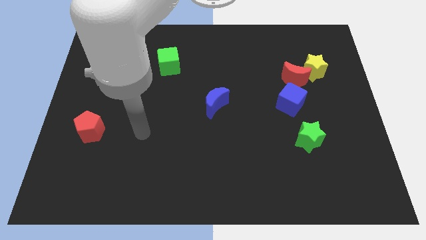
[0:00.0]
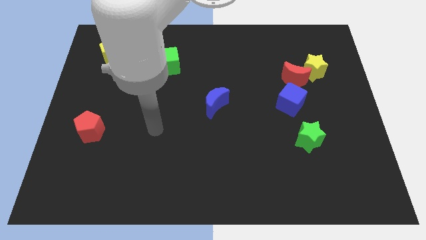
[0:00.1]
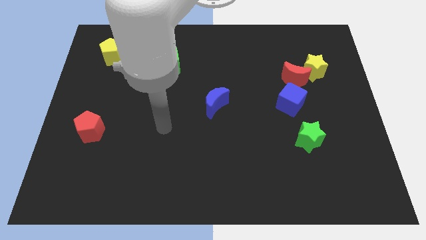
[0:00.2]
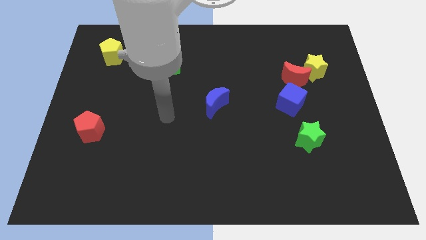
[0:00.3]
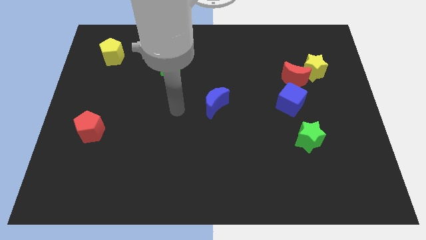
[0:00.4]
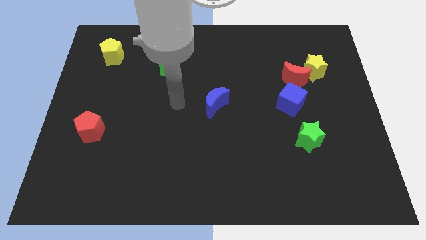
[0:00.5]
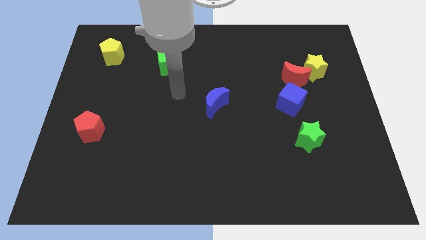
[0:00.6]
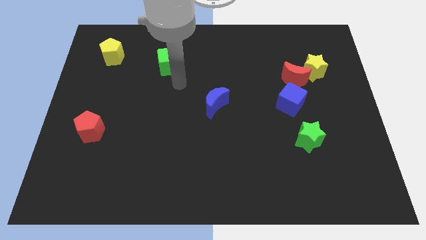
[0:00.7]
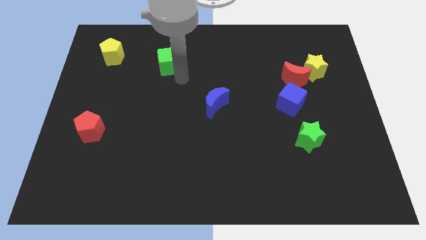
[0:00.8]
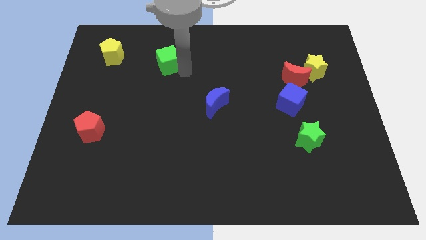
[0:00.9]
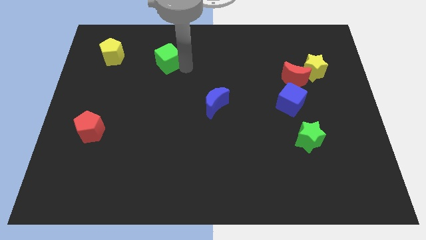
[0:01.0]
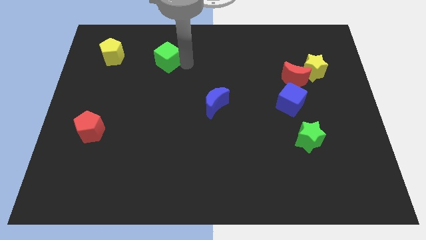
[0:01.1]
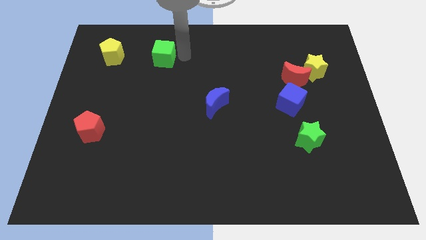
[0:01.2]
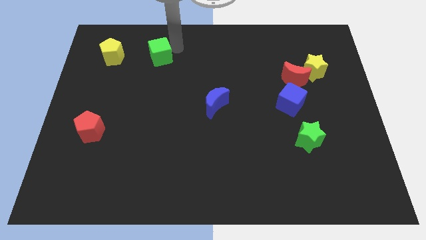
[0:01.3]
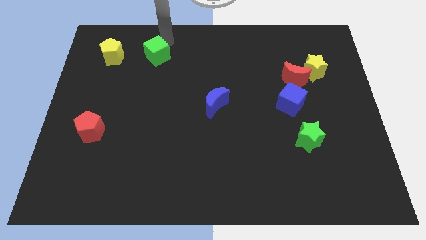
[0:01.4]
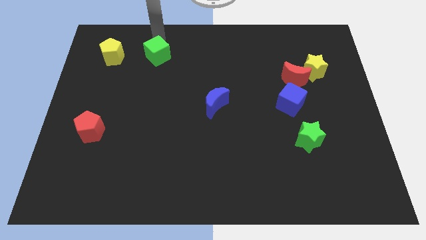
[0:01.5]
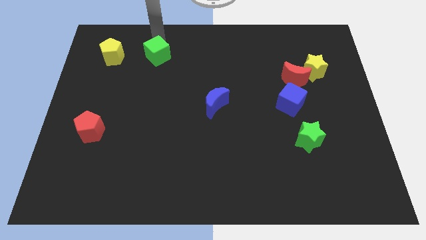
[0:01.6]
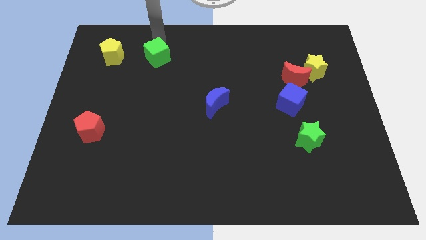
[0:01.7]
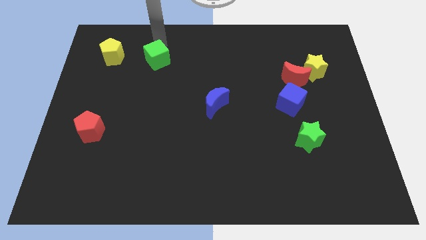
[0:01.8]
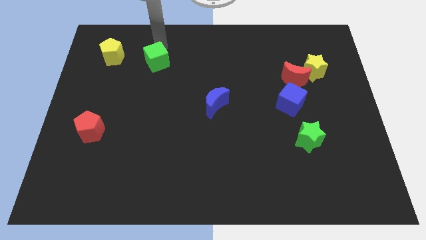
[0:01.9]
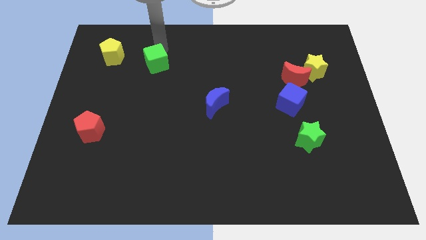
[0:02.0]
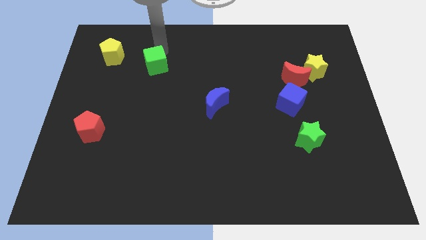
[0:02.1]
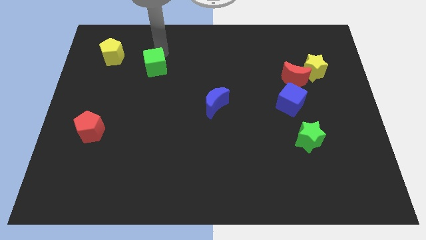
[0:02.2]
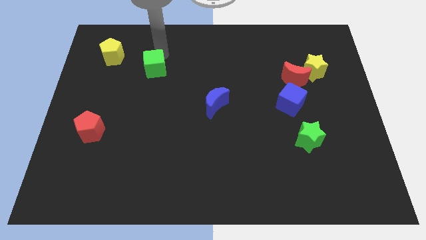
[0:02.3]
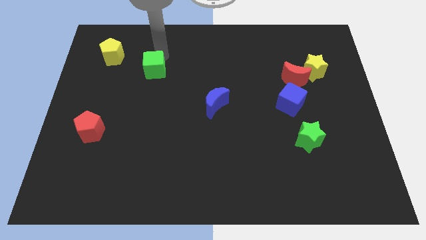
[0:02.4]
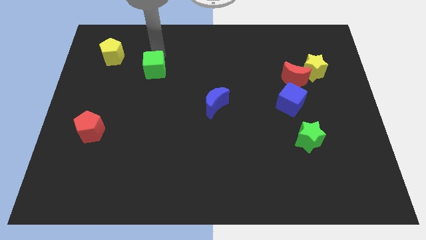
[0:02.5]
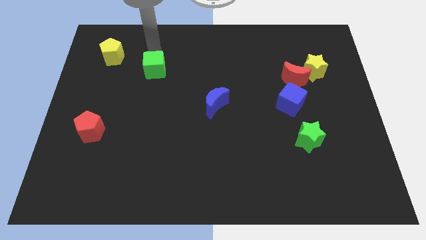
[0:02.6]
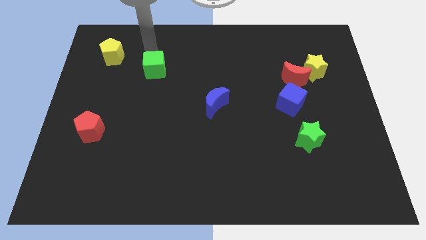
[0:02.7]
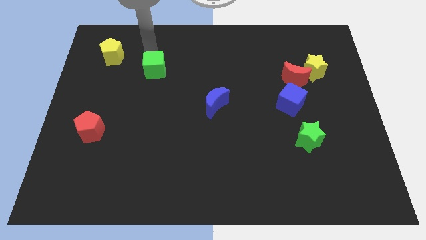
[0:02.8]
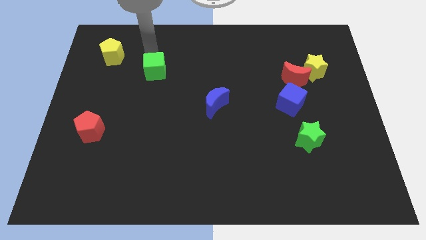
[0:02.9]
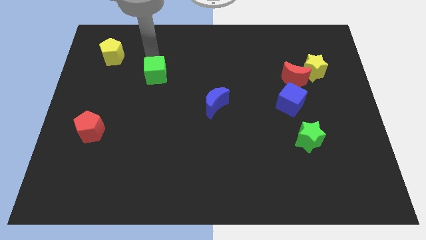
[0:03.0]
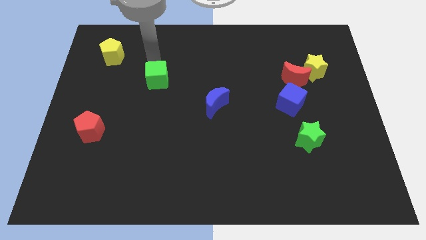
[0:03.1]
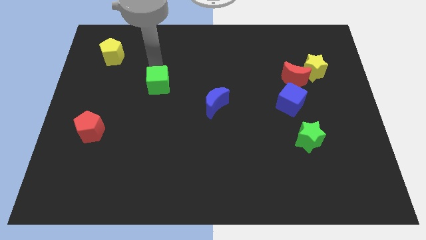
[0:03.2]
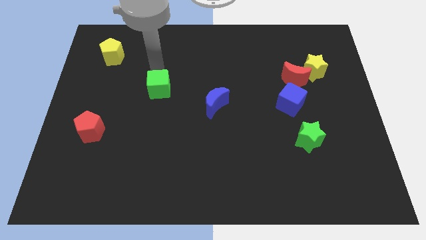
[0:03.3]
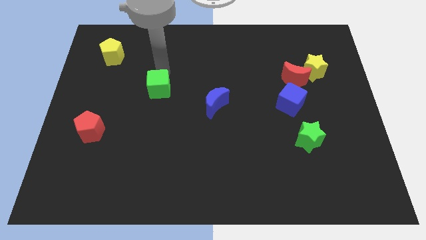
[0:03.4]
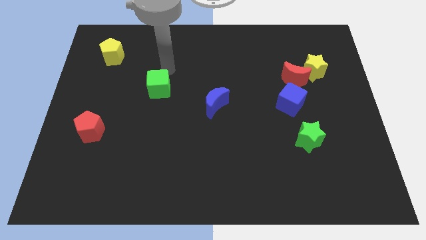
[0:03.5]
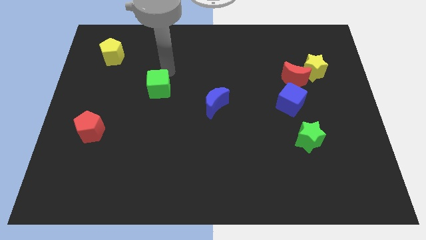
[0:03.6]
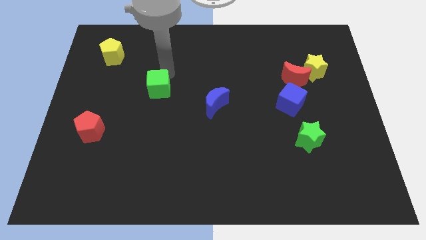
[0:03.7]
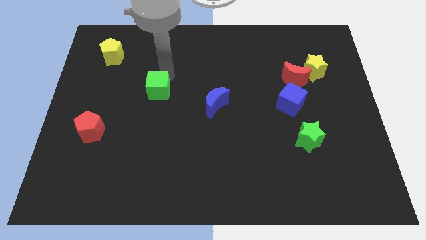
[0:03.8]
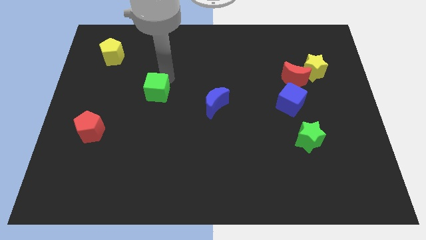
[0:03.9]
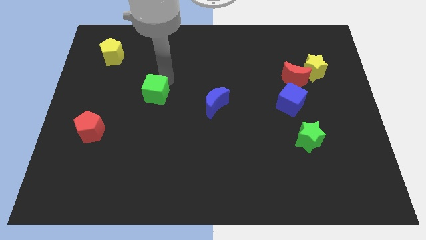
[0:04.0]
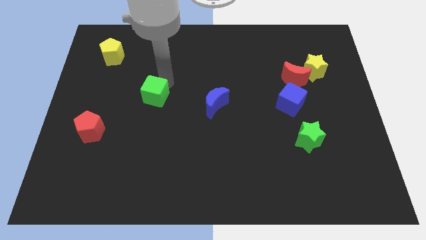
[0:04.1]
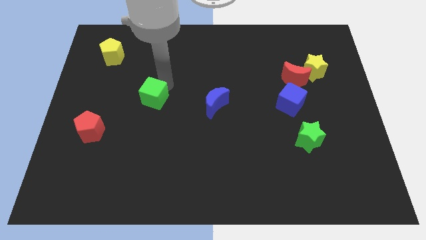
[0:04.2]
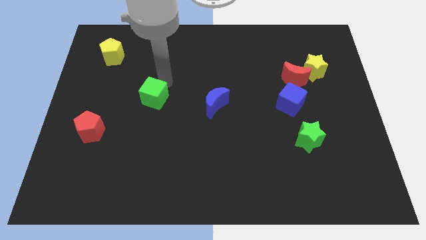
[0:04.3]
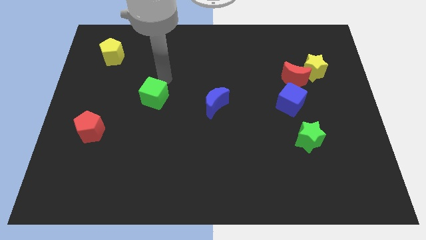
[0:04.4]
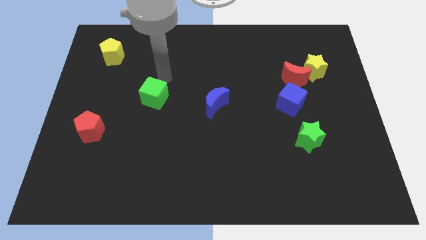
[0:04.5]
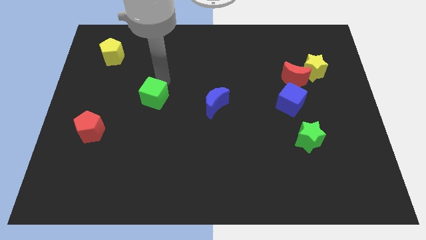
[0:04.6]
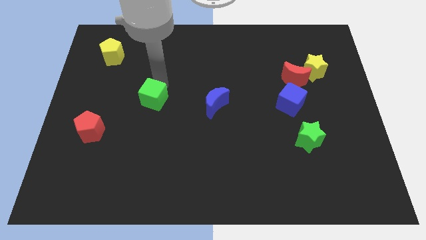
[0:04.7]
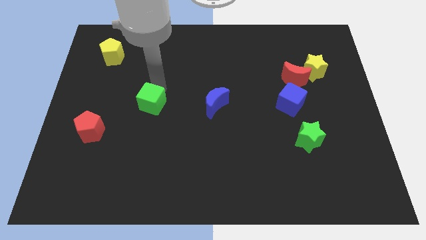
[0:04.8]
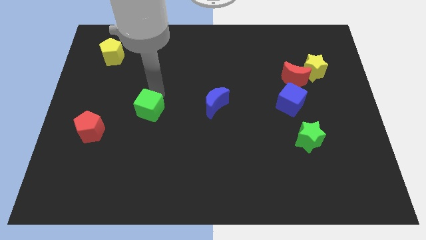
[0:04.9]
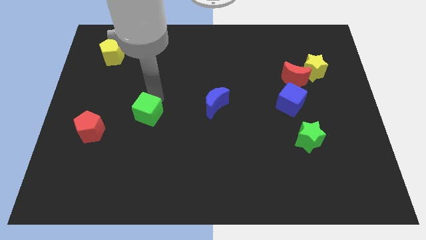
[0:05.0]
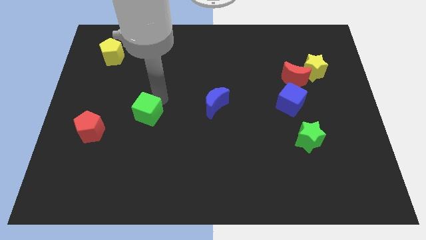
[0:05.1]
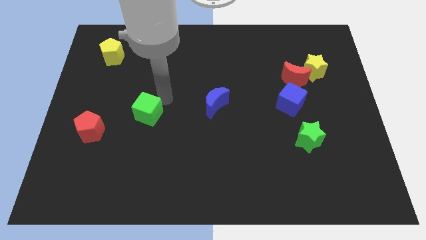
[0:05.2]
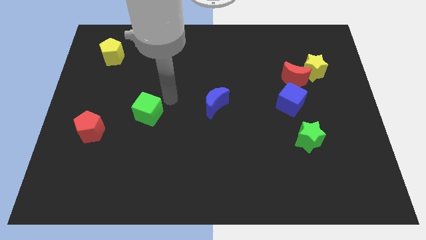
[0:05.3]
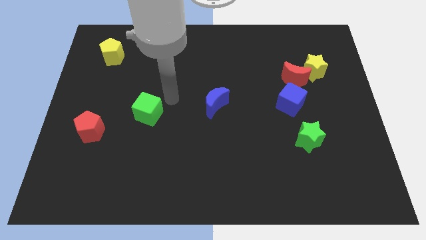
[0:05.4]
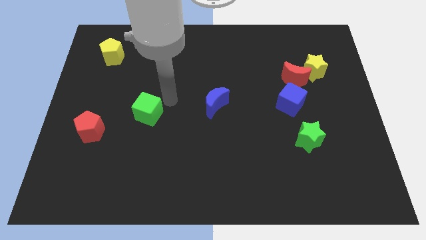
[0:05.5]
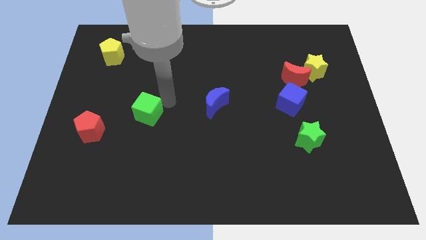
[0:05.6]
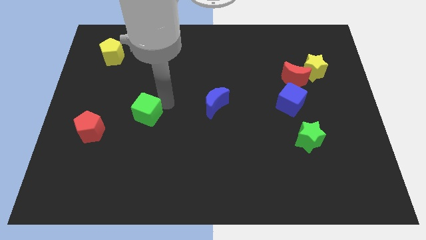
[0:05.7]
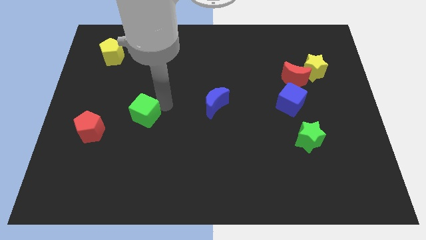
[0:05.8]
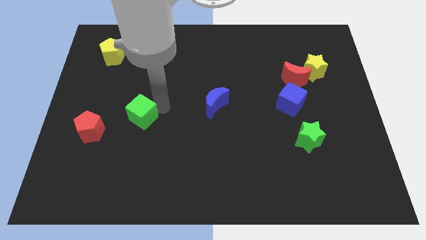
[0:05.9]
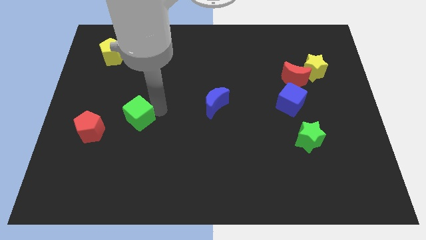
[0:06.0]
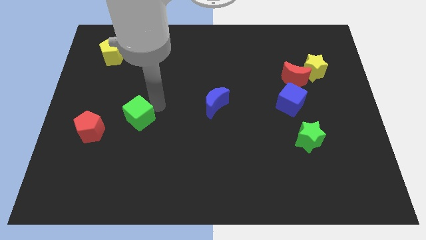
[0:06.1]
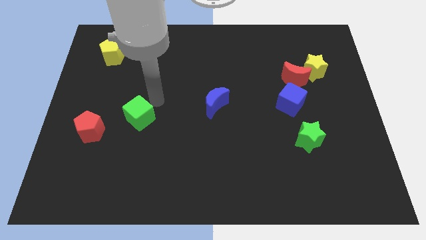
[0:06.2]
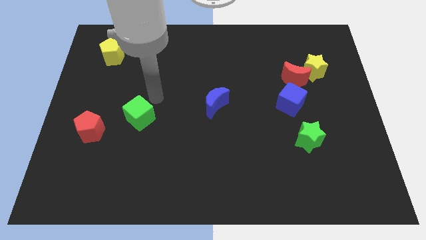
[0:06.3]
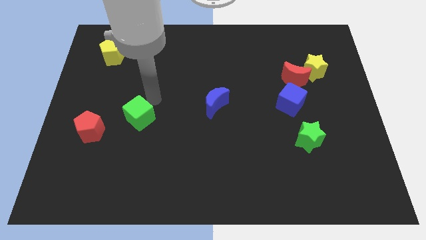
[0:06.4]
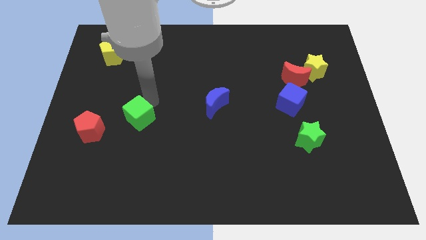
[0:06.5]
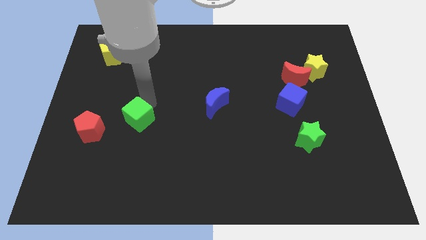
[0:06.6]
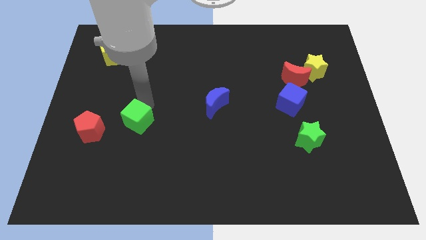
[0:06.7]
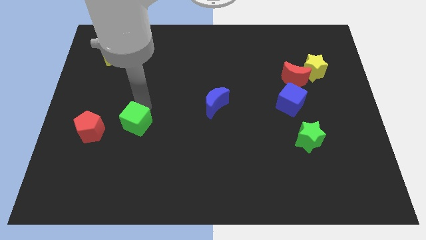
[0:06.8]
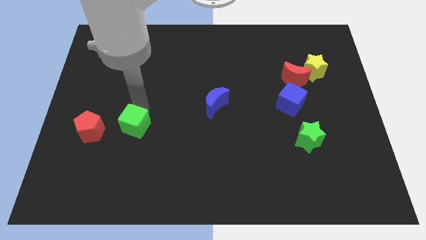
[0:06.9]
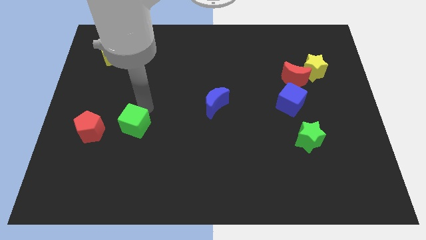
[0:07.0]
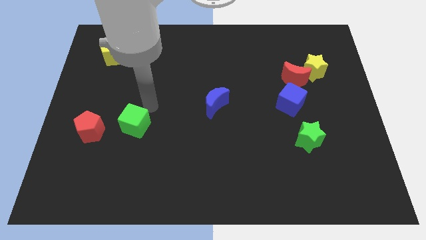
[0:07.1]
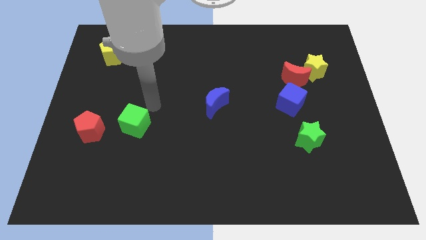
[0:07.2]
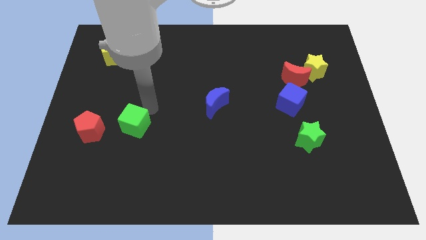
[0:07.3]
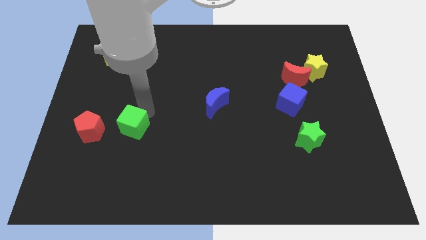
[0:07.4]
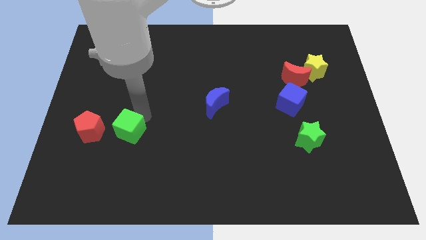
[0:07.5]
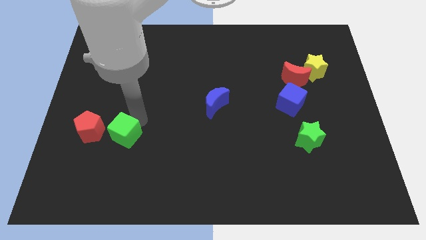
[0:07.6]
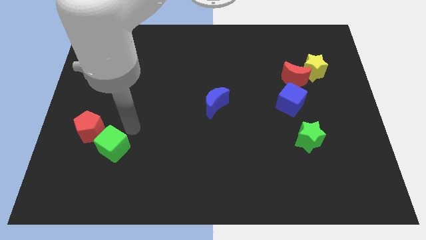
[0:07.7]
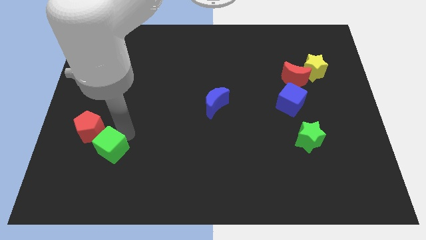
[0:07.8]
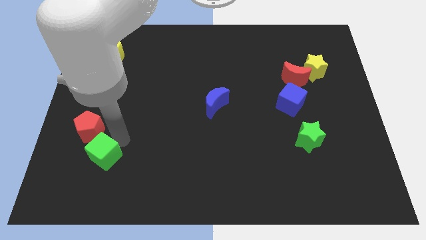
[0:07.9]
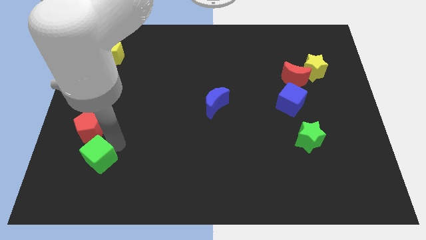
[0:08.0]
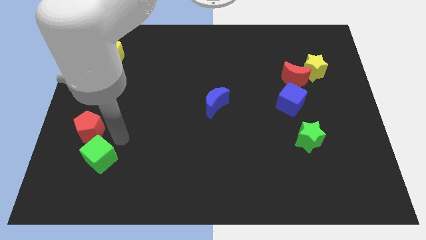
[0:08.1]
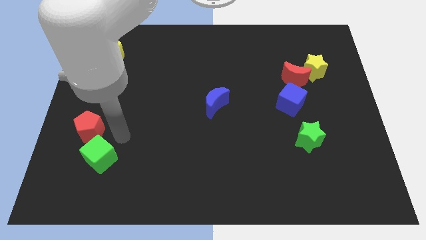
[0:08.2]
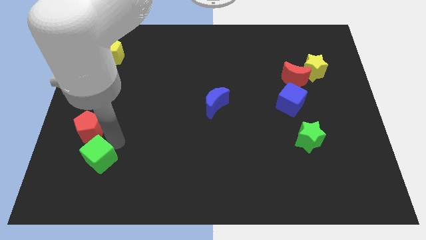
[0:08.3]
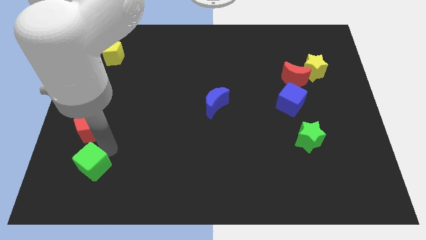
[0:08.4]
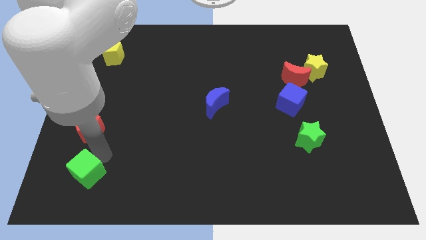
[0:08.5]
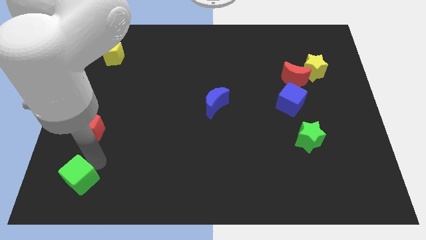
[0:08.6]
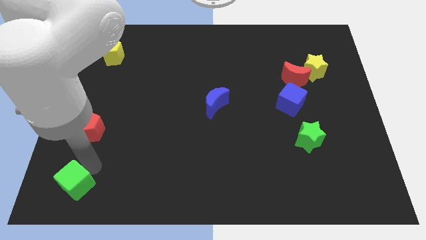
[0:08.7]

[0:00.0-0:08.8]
put the green cube to the bottom left corner
